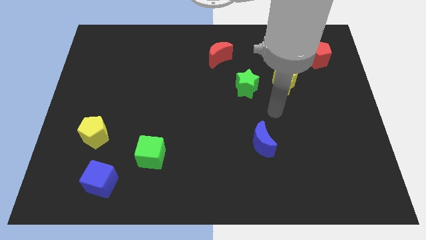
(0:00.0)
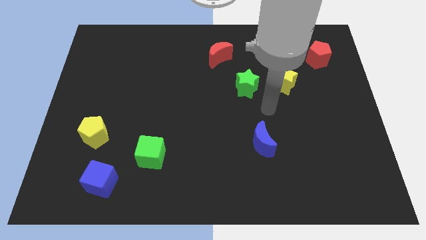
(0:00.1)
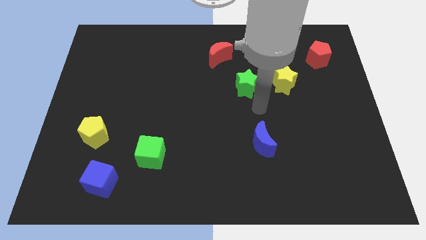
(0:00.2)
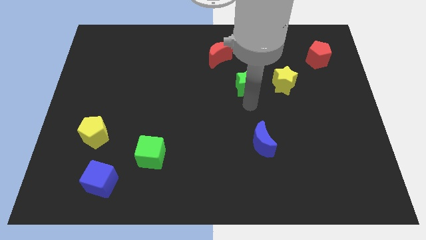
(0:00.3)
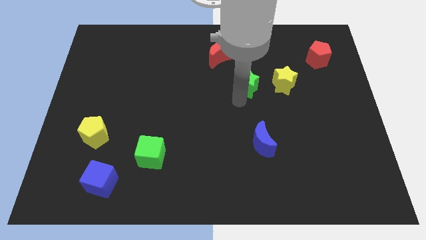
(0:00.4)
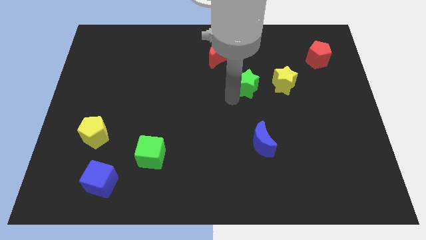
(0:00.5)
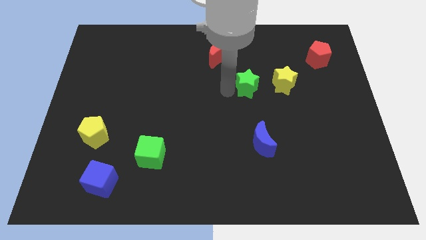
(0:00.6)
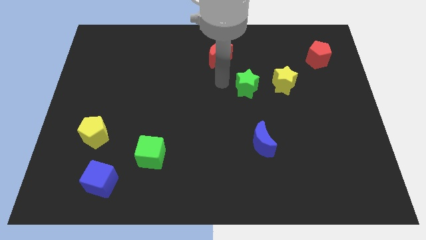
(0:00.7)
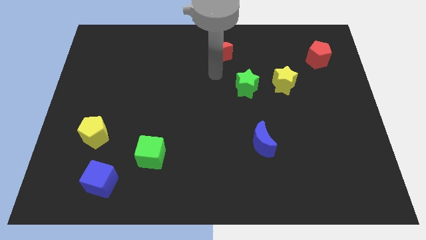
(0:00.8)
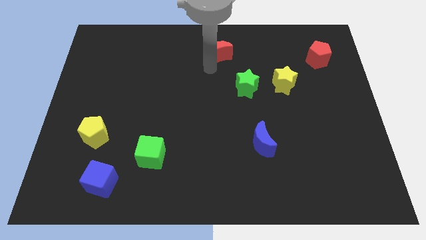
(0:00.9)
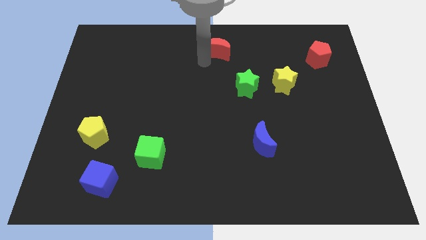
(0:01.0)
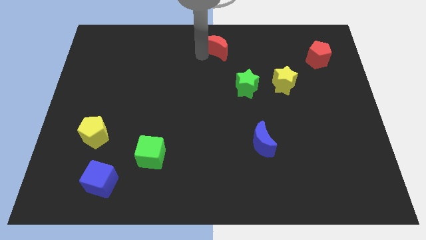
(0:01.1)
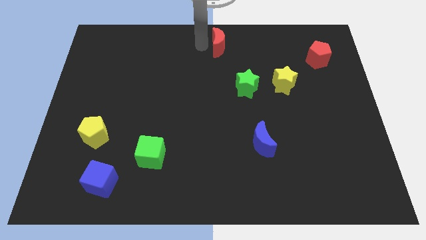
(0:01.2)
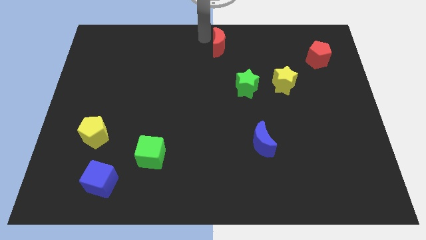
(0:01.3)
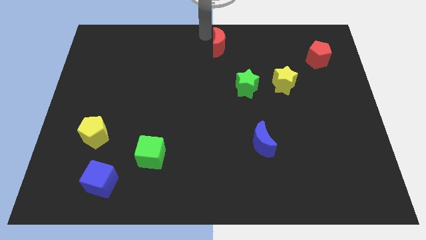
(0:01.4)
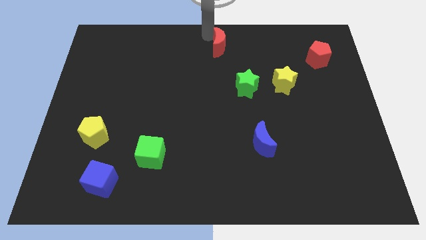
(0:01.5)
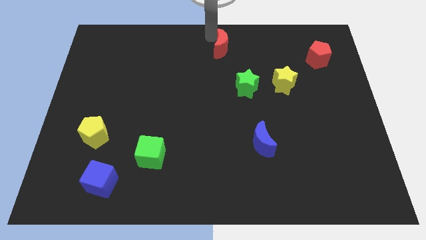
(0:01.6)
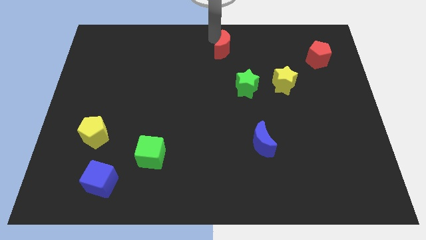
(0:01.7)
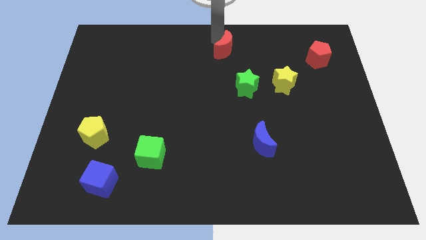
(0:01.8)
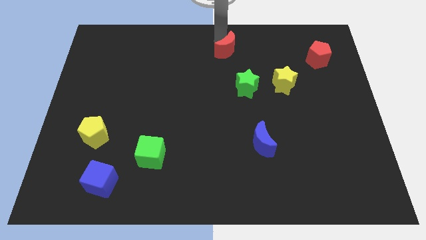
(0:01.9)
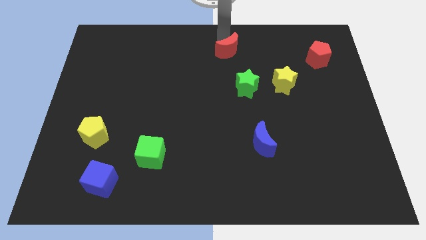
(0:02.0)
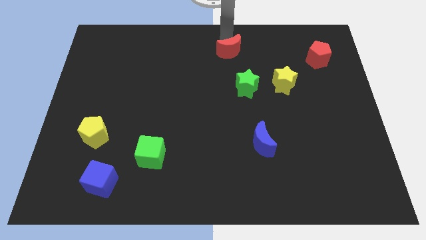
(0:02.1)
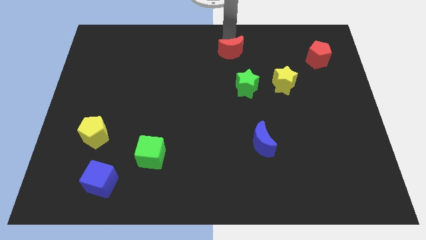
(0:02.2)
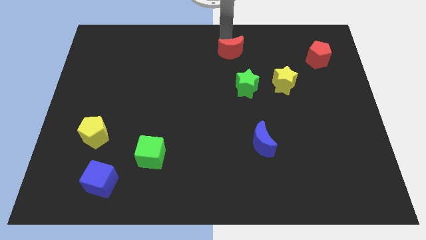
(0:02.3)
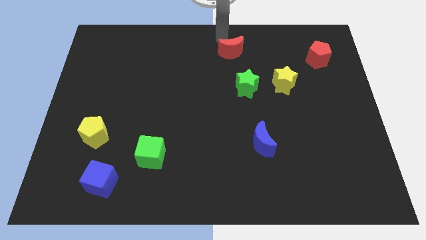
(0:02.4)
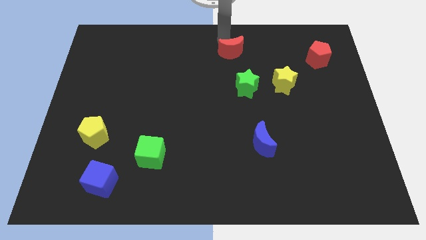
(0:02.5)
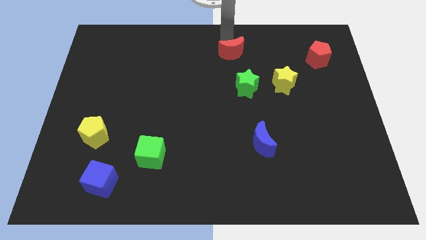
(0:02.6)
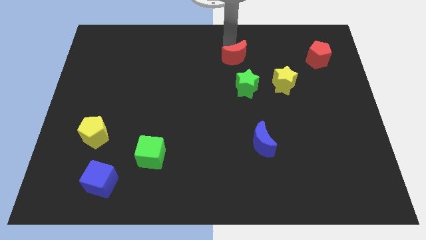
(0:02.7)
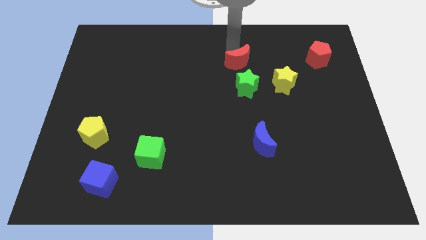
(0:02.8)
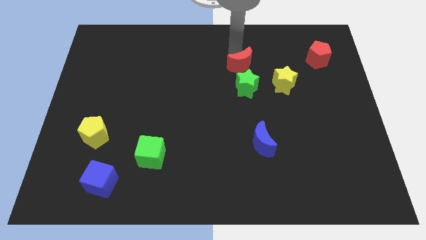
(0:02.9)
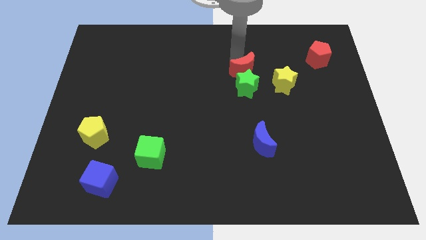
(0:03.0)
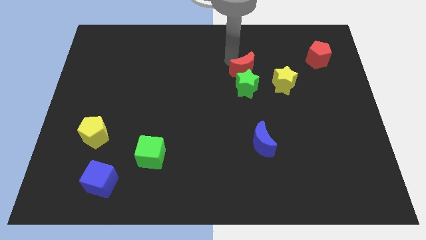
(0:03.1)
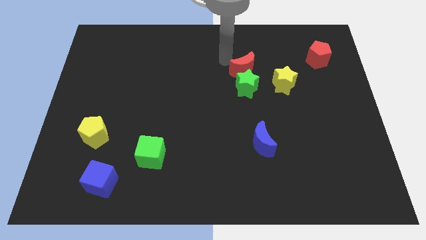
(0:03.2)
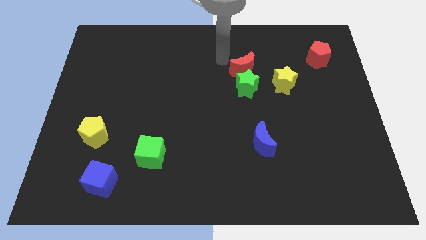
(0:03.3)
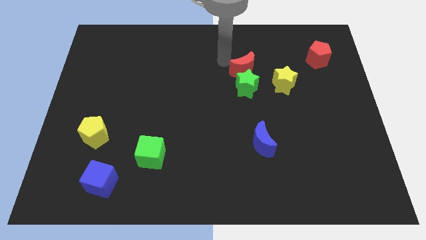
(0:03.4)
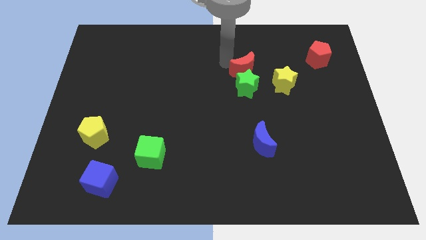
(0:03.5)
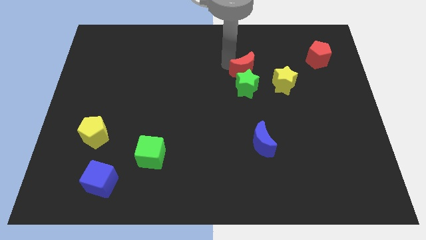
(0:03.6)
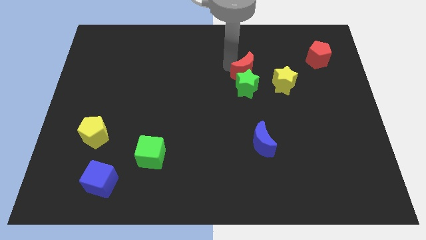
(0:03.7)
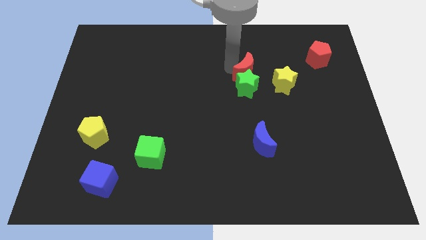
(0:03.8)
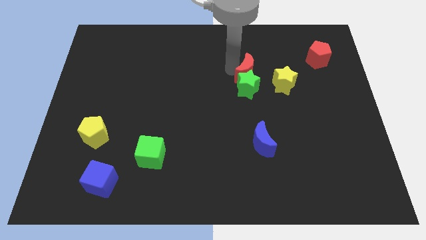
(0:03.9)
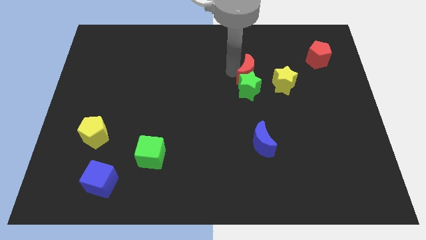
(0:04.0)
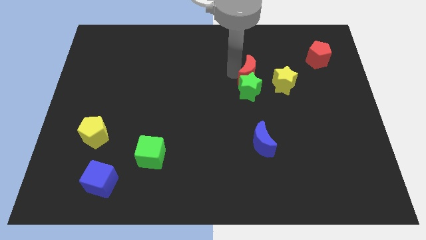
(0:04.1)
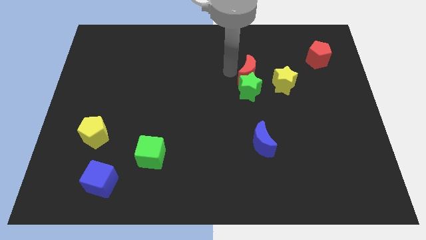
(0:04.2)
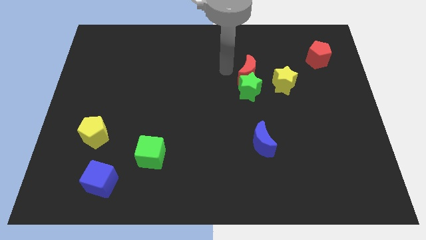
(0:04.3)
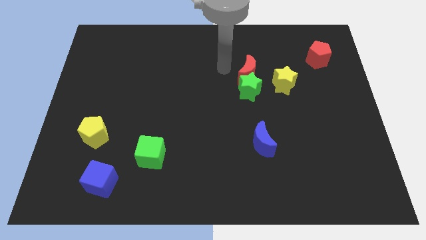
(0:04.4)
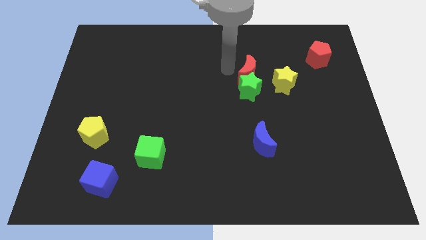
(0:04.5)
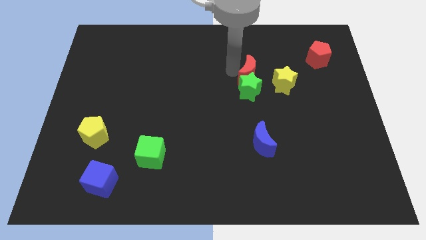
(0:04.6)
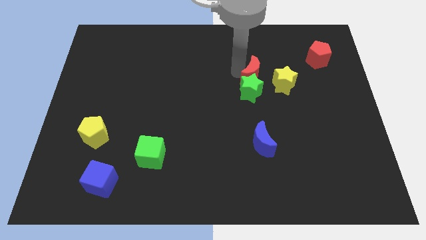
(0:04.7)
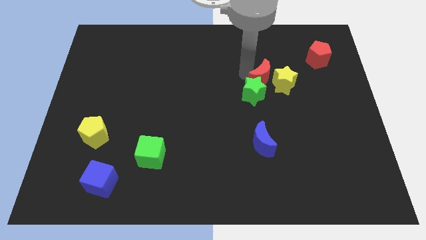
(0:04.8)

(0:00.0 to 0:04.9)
move the red moon next to the yellow star

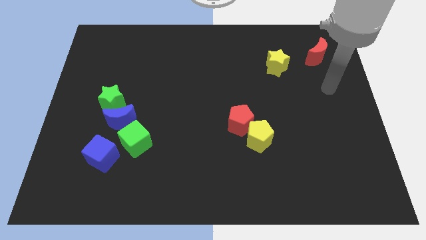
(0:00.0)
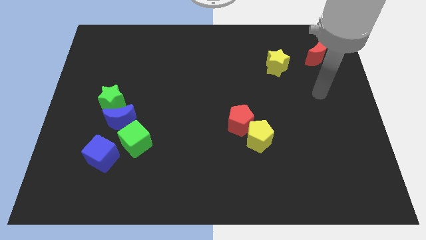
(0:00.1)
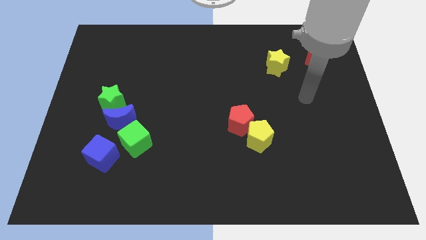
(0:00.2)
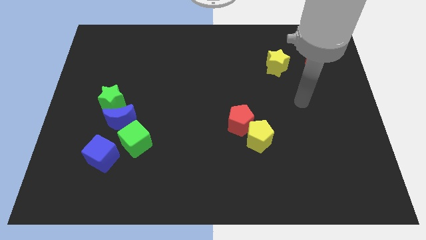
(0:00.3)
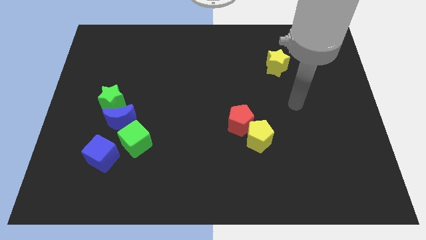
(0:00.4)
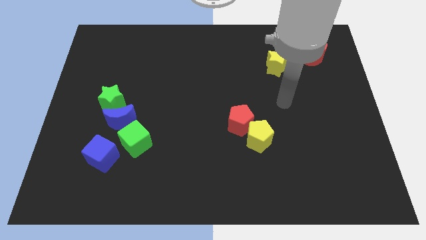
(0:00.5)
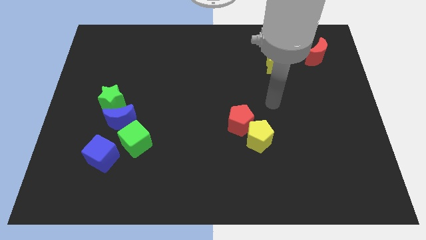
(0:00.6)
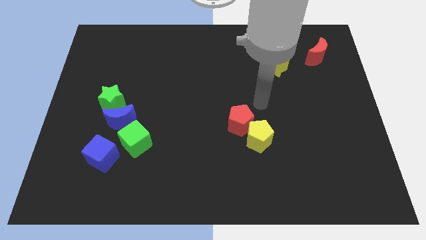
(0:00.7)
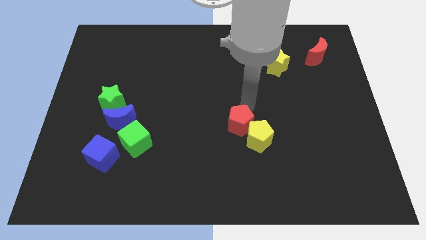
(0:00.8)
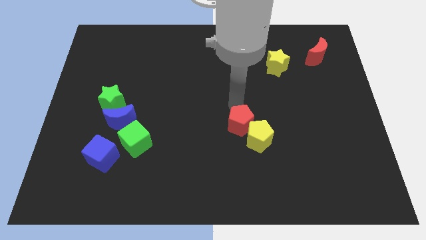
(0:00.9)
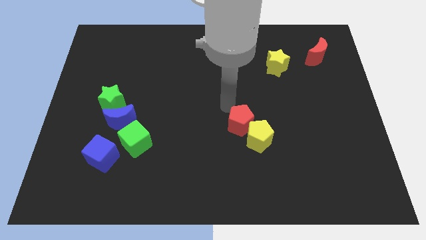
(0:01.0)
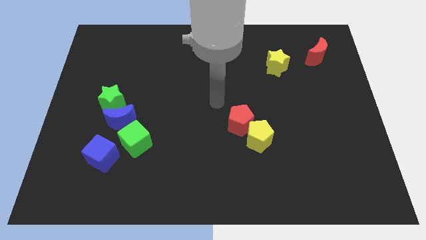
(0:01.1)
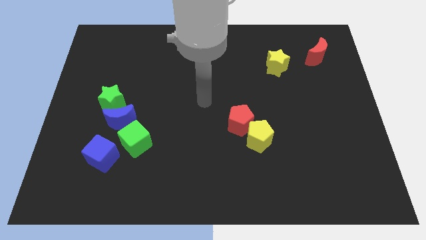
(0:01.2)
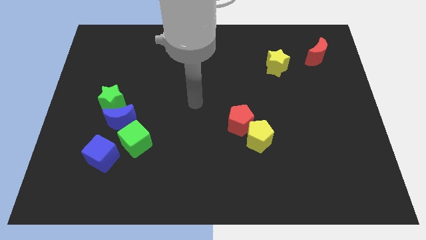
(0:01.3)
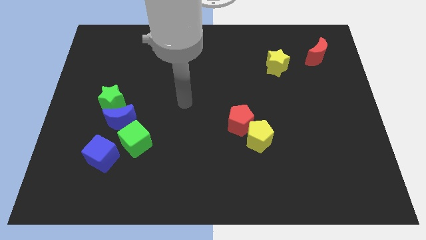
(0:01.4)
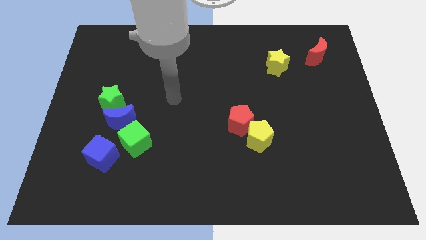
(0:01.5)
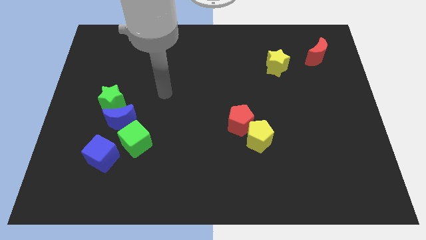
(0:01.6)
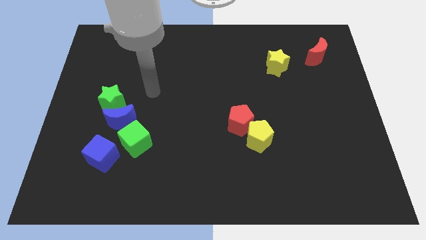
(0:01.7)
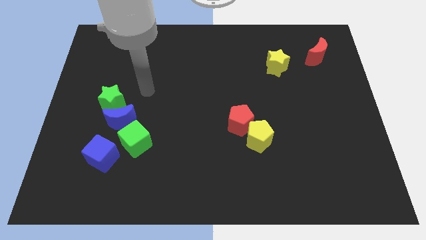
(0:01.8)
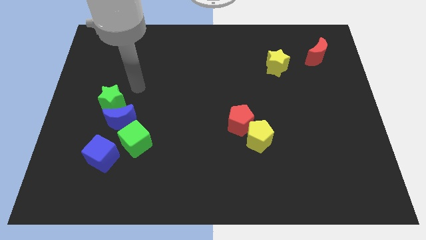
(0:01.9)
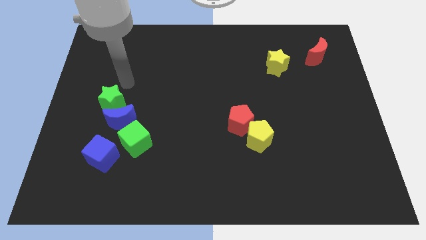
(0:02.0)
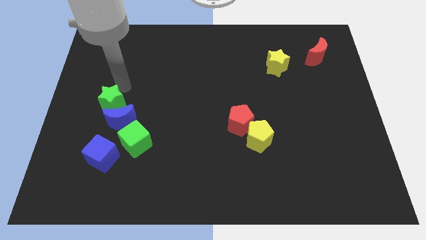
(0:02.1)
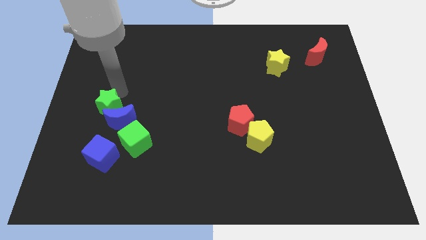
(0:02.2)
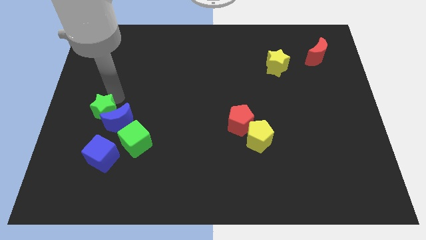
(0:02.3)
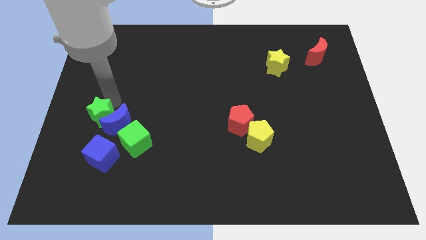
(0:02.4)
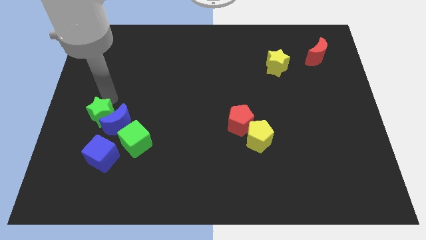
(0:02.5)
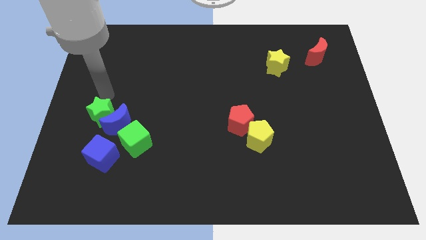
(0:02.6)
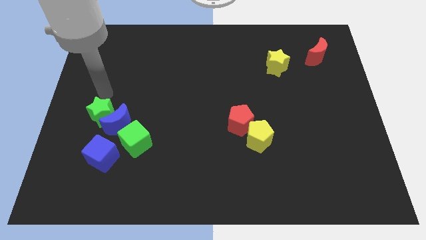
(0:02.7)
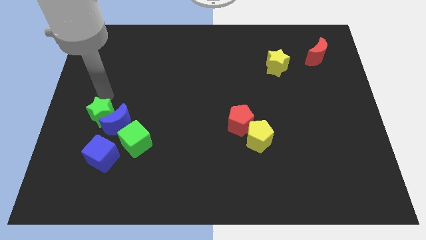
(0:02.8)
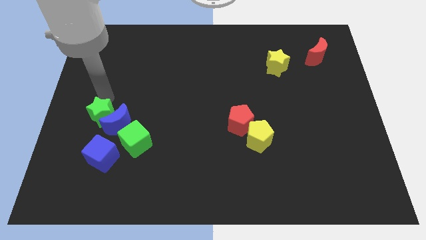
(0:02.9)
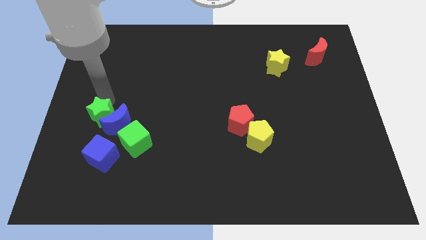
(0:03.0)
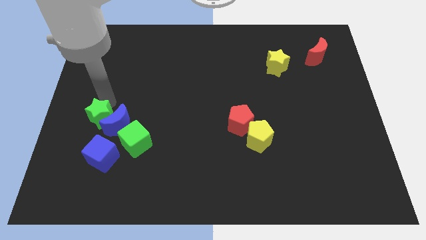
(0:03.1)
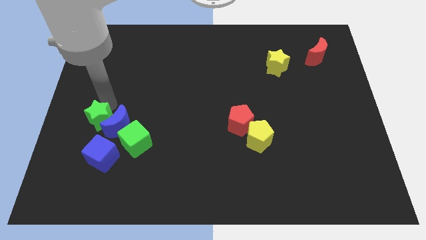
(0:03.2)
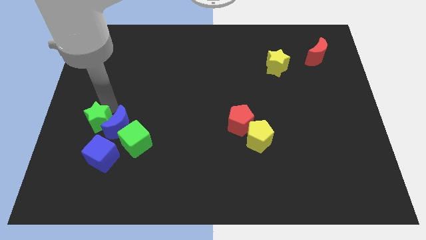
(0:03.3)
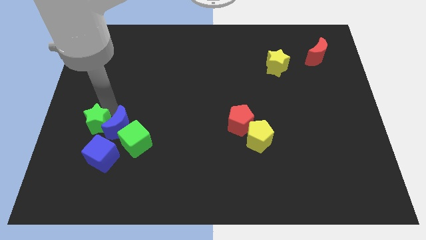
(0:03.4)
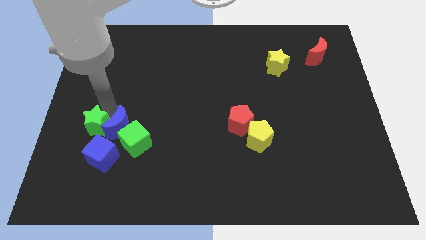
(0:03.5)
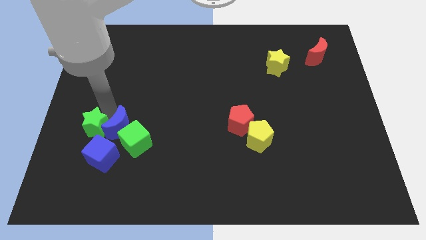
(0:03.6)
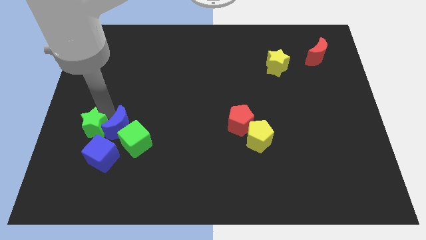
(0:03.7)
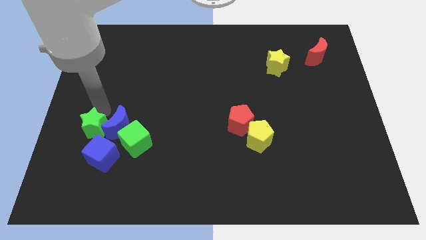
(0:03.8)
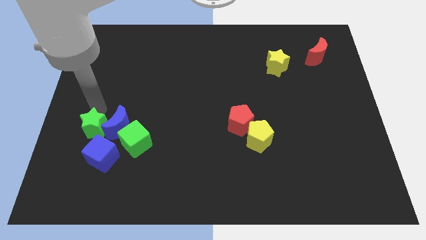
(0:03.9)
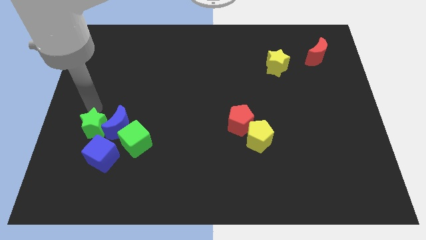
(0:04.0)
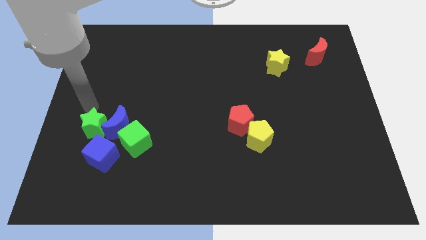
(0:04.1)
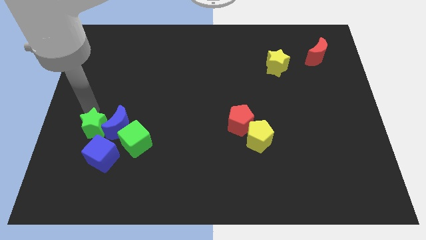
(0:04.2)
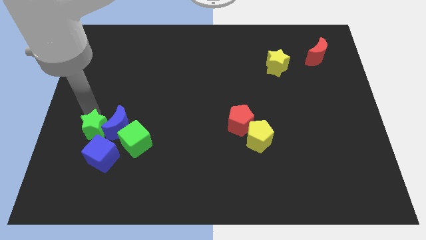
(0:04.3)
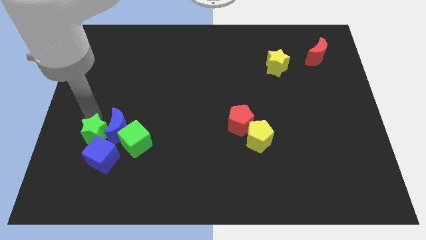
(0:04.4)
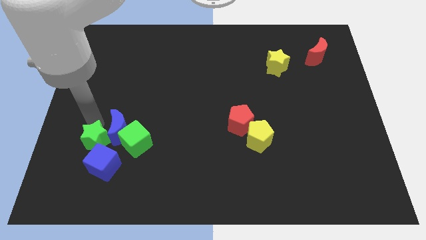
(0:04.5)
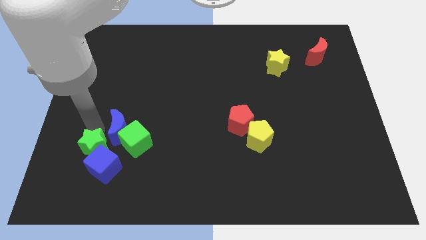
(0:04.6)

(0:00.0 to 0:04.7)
push the green star next to the blue cube
